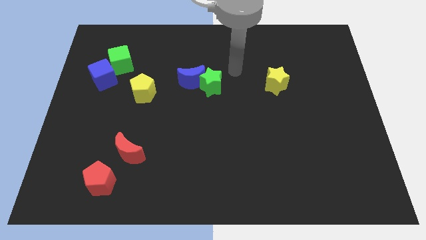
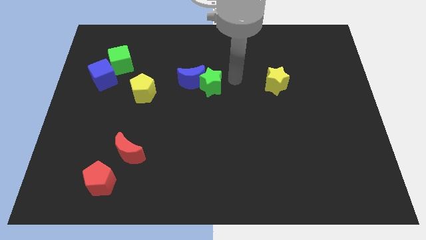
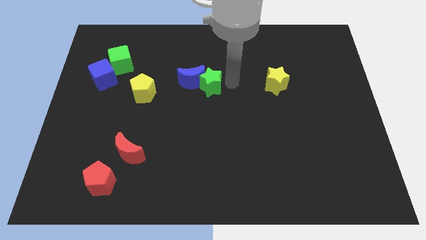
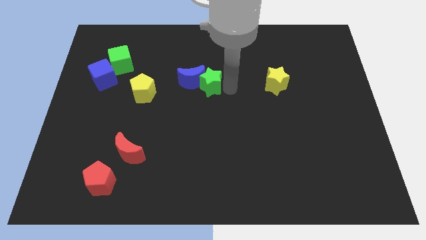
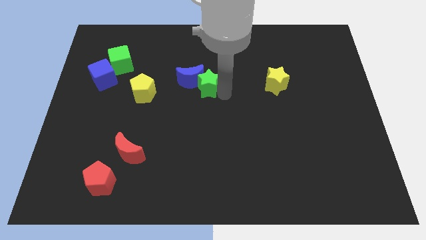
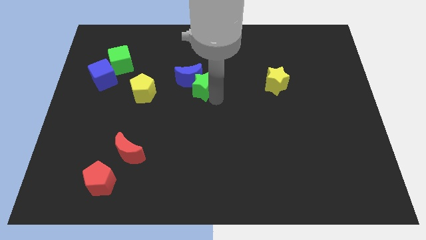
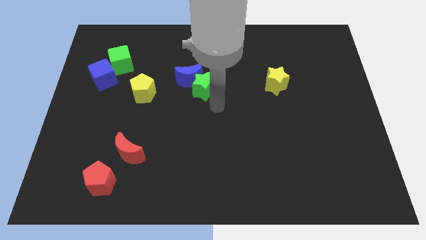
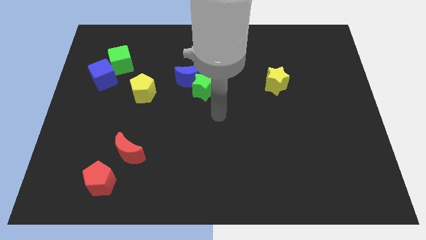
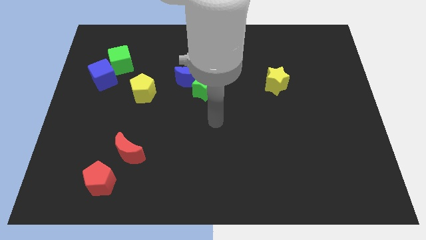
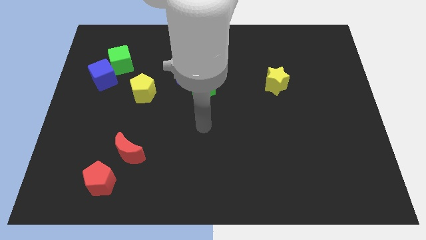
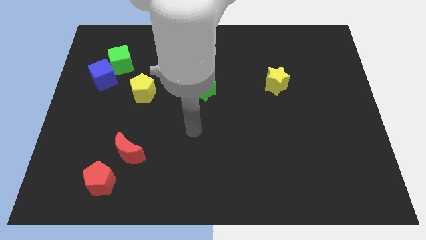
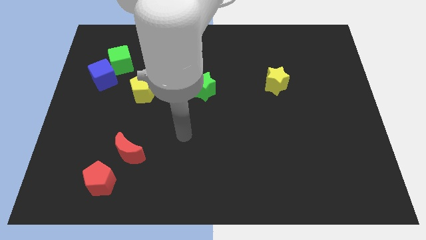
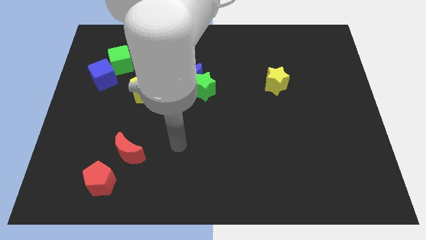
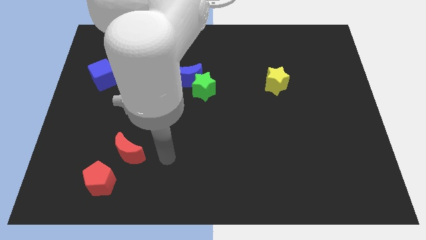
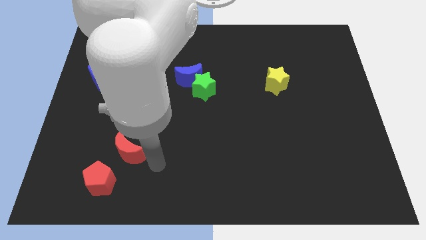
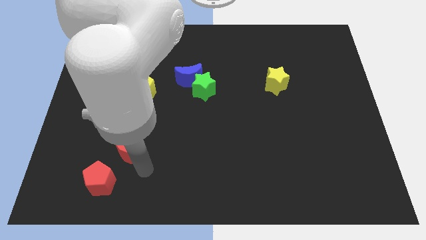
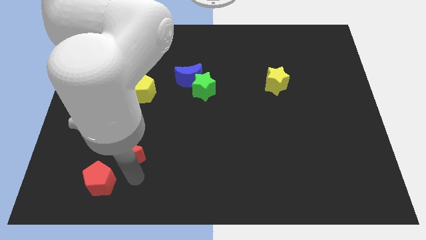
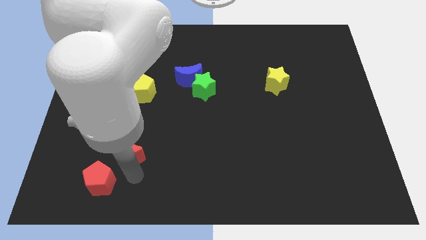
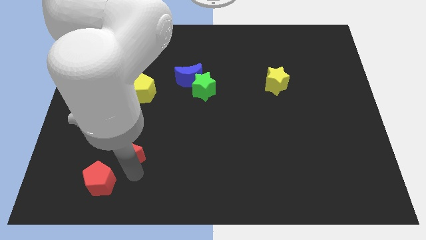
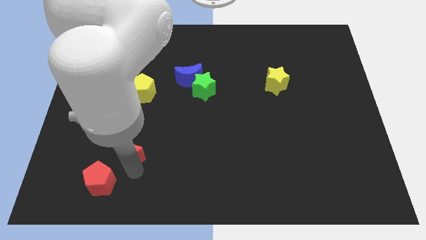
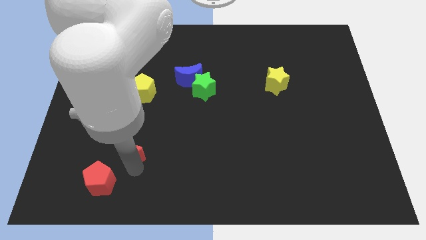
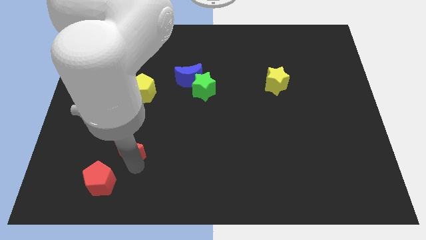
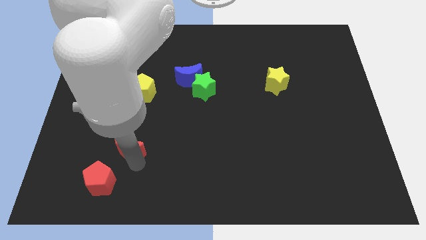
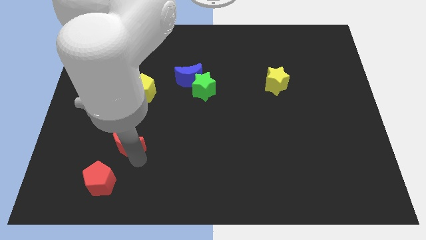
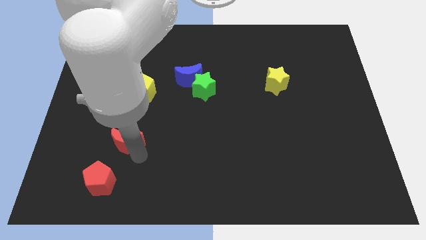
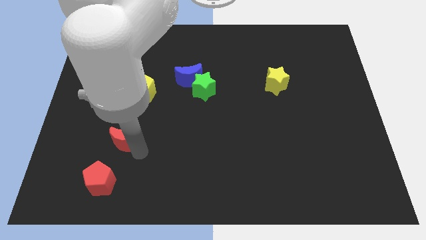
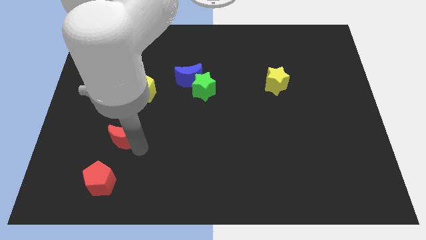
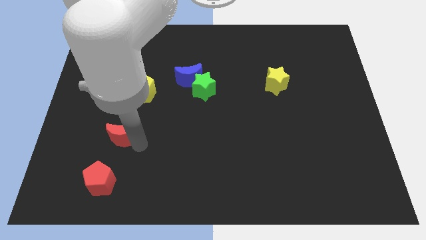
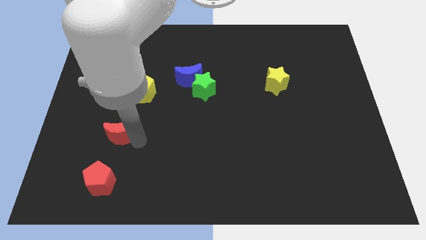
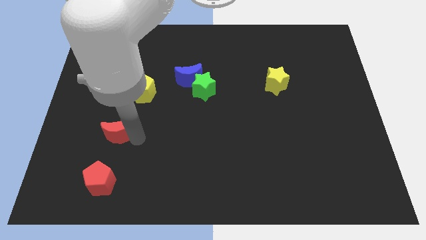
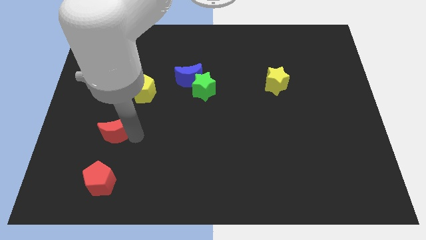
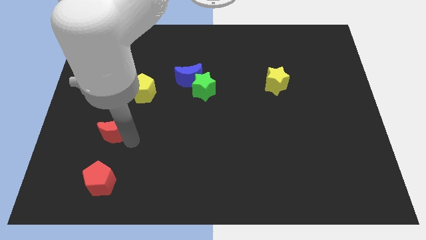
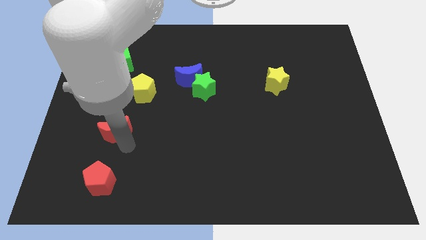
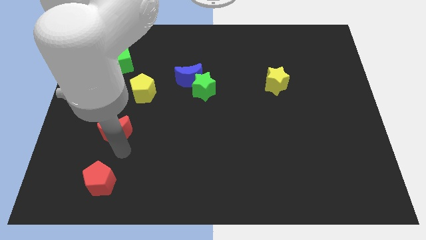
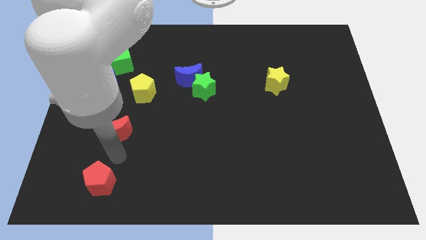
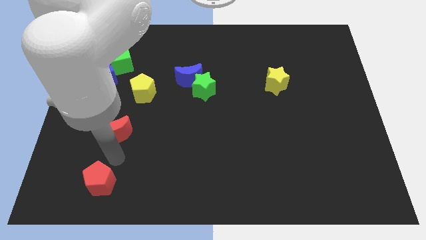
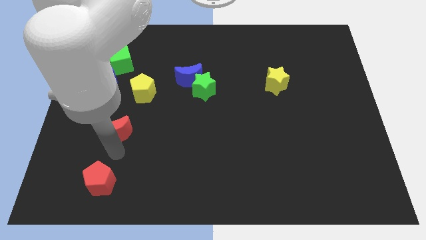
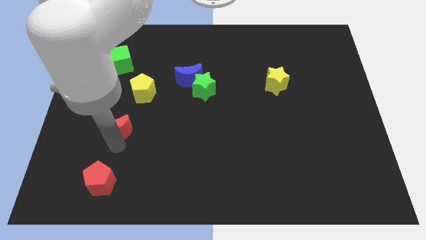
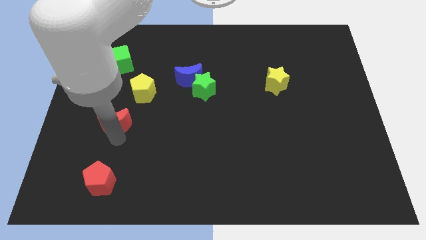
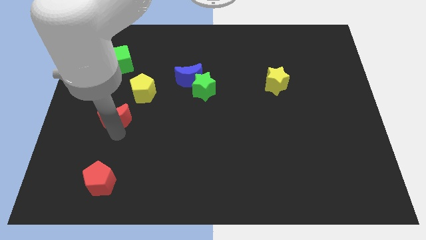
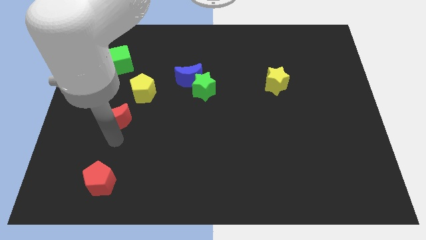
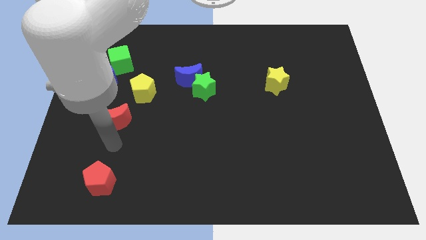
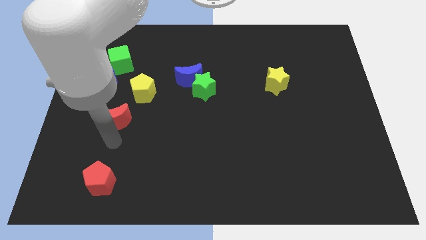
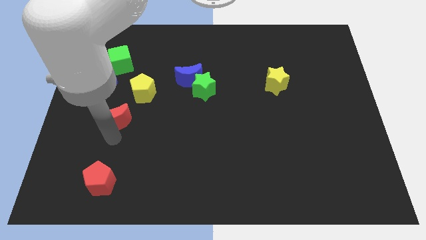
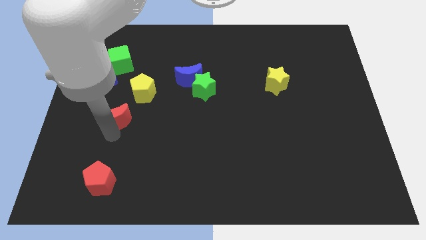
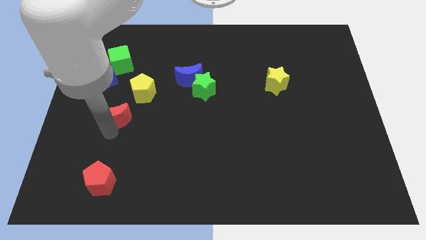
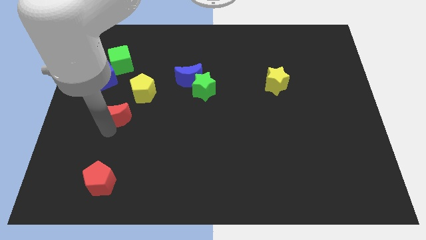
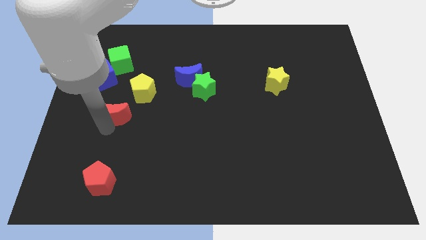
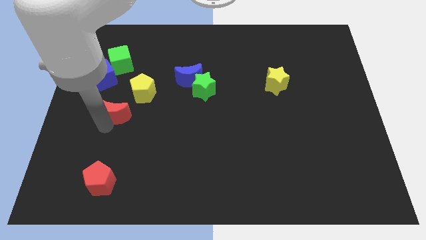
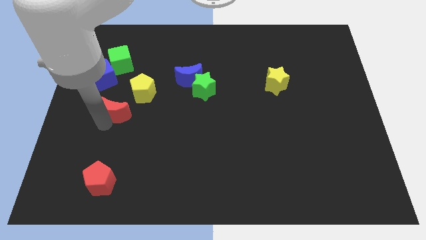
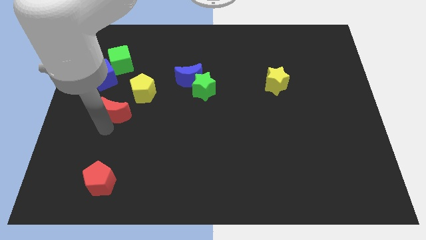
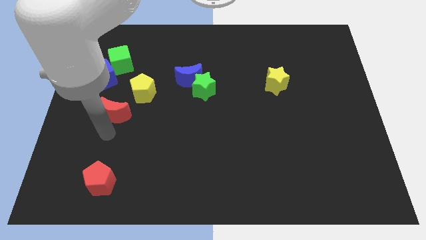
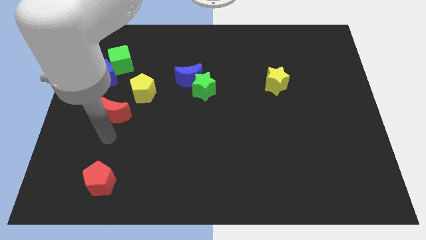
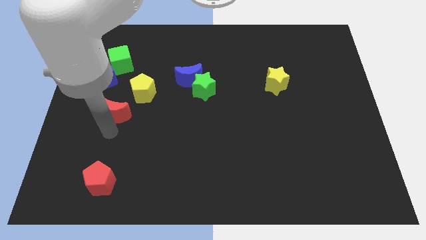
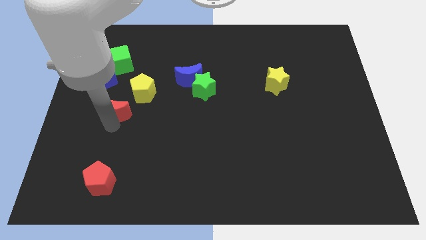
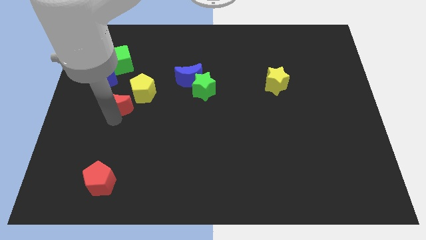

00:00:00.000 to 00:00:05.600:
push the red moon diagonally down and to the right of the blue cube

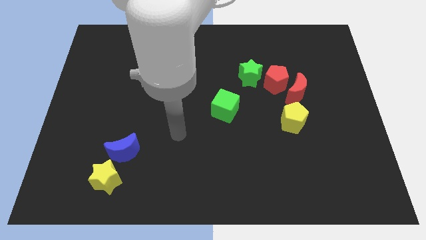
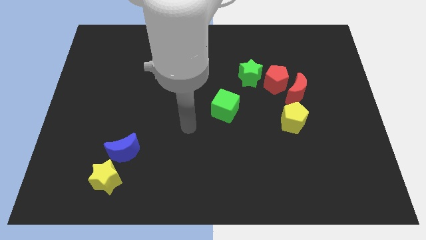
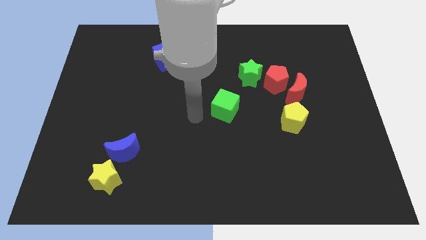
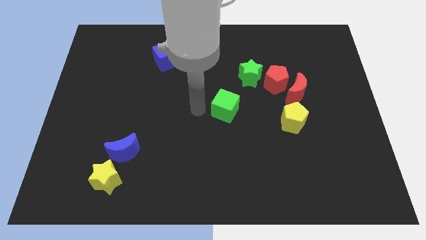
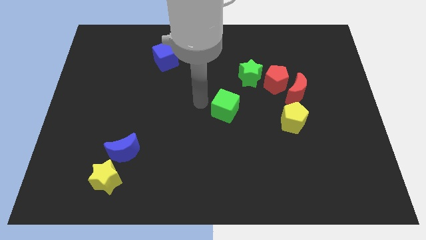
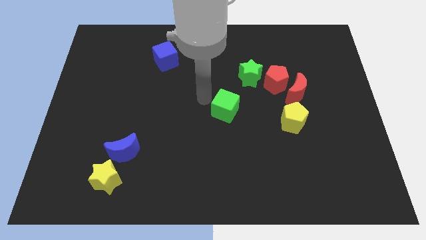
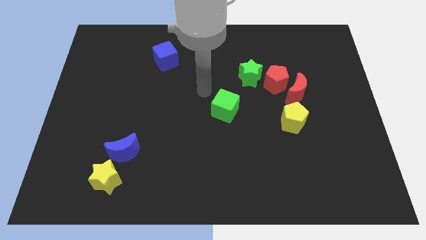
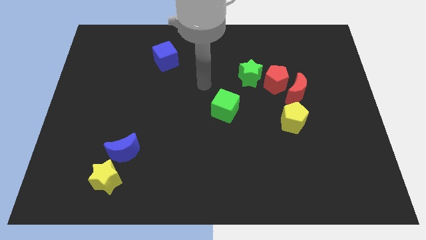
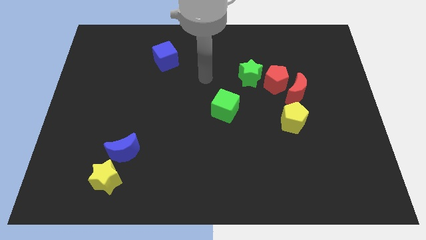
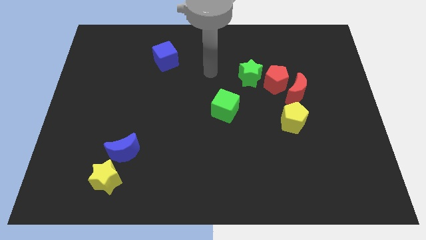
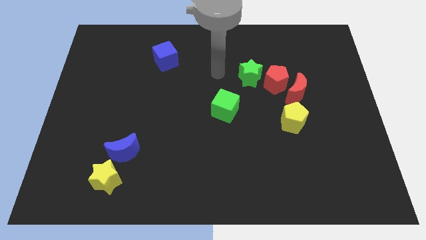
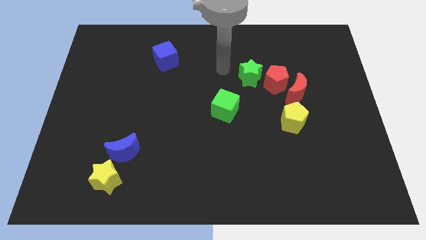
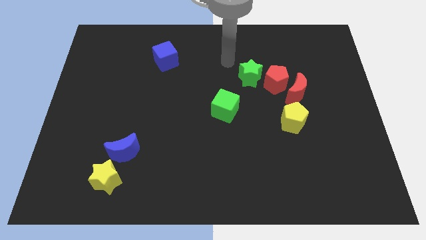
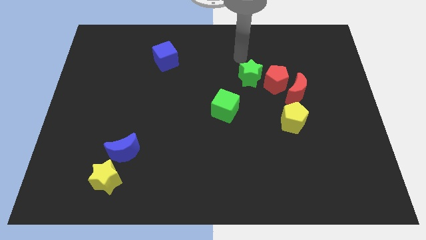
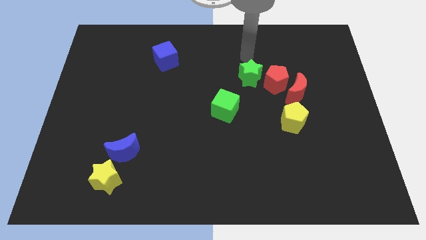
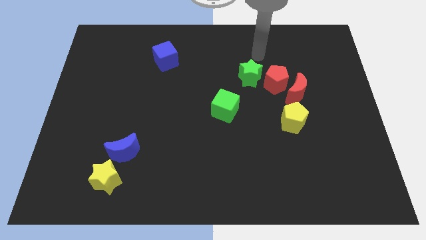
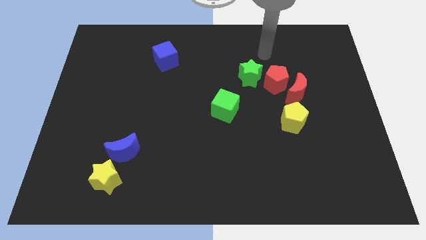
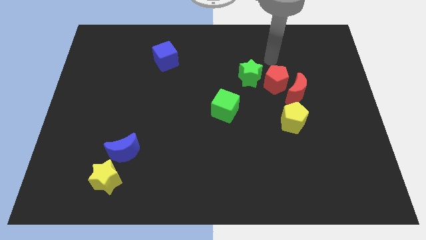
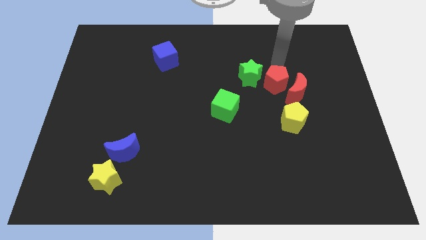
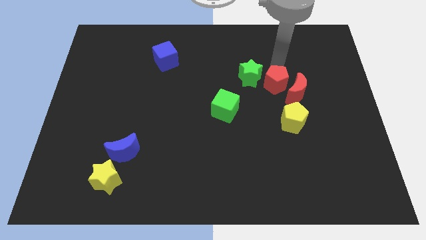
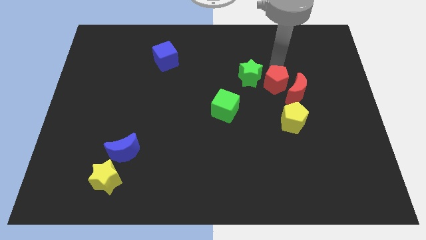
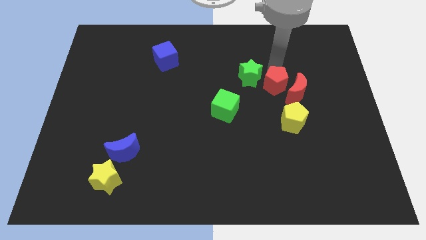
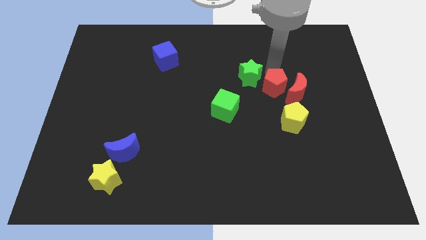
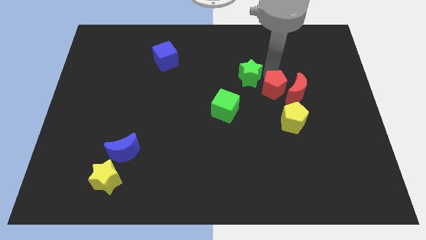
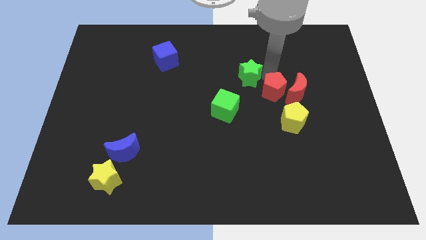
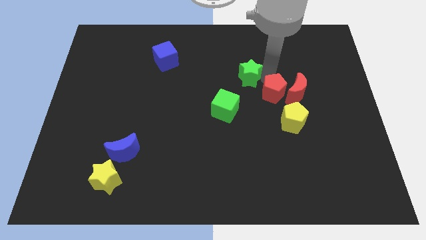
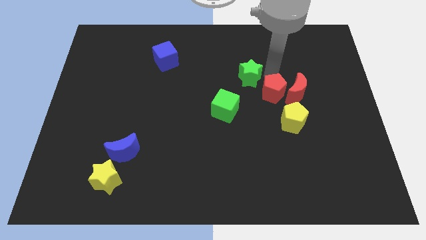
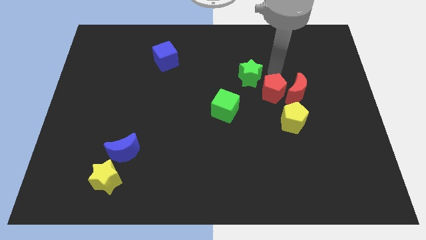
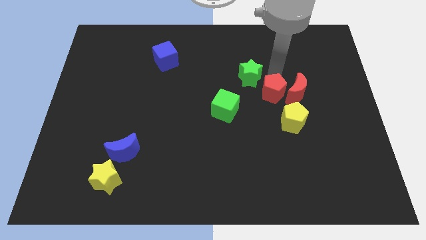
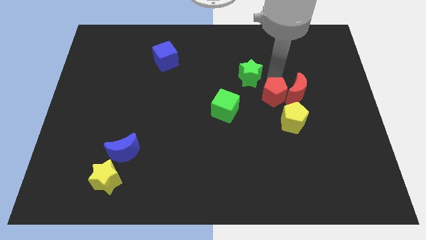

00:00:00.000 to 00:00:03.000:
slide the red pentagon to the right side of the green cube
